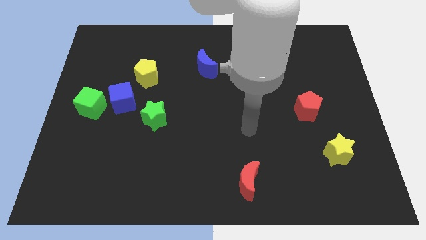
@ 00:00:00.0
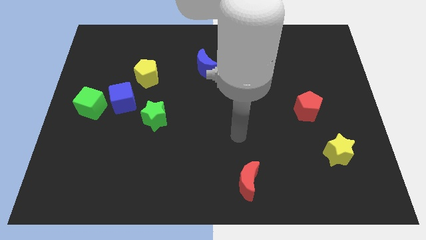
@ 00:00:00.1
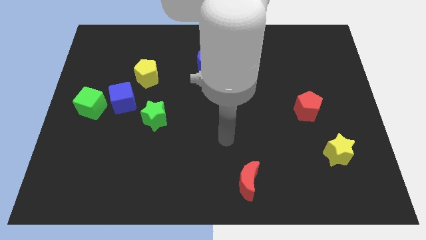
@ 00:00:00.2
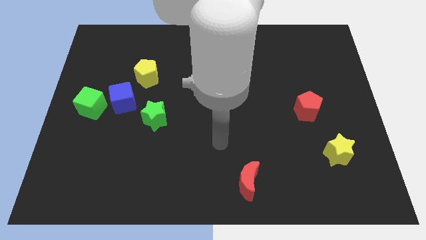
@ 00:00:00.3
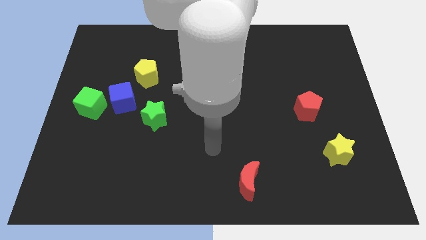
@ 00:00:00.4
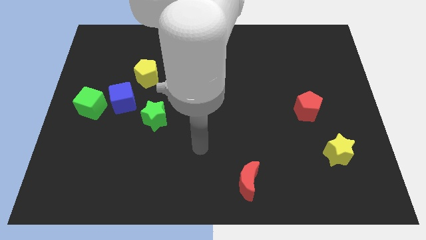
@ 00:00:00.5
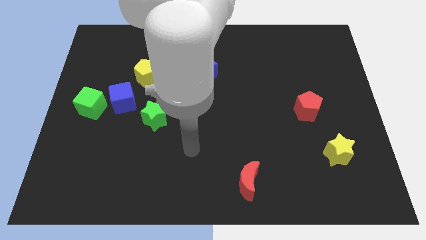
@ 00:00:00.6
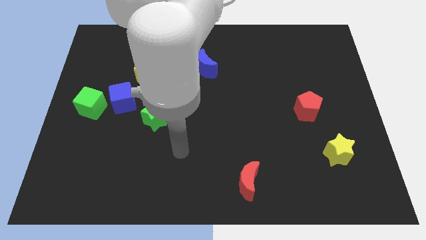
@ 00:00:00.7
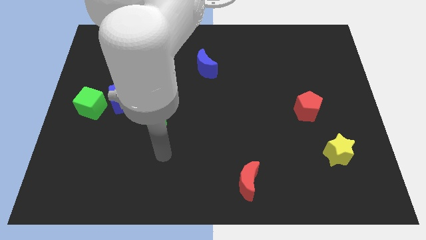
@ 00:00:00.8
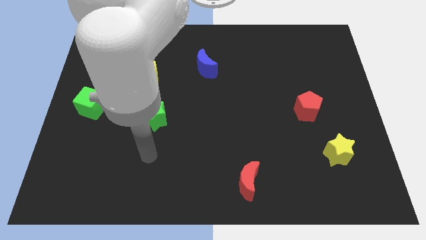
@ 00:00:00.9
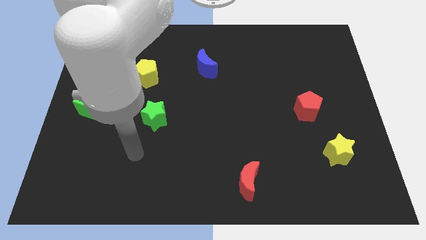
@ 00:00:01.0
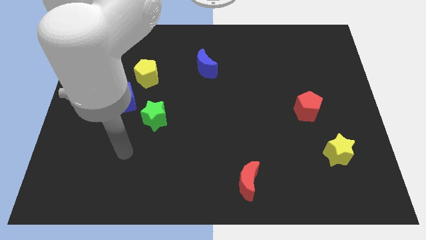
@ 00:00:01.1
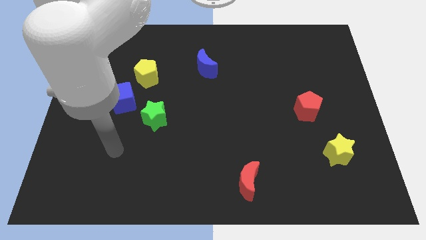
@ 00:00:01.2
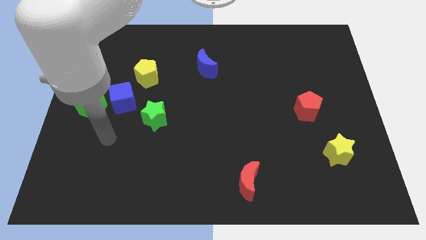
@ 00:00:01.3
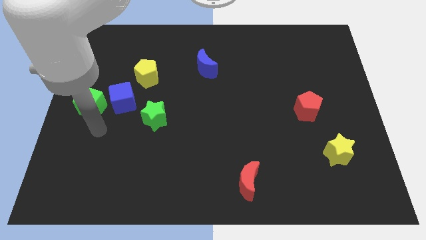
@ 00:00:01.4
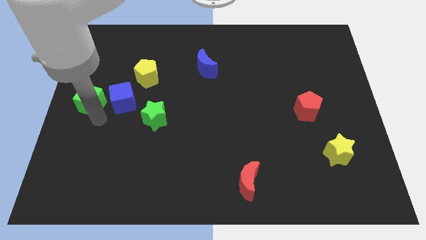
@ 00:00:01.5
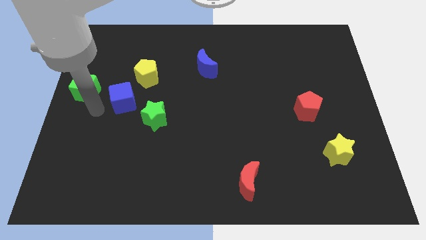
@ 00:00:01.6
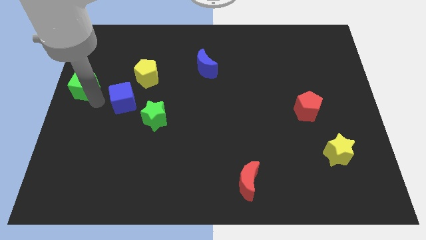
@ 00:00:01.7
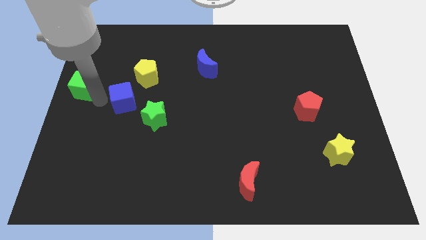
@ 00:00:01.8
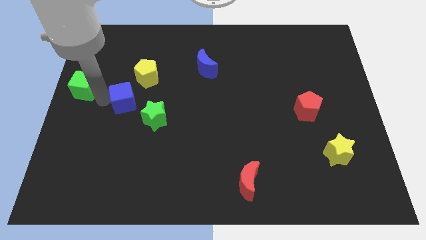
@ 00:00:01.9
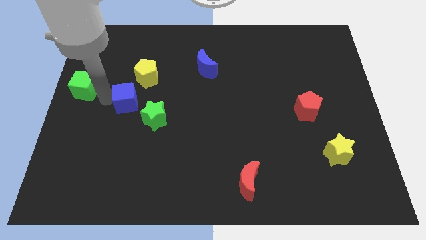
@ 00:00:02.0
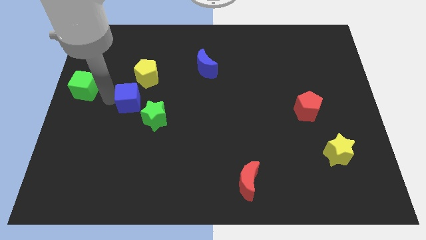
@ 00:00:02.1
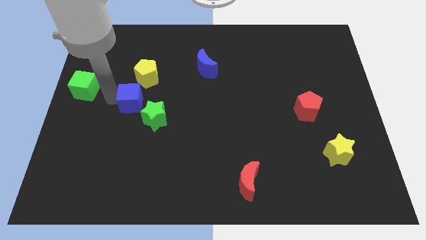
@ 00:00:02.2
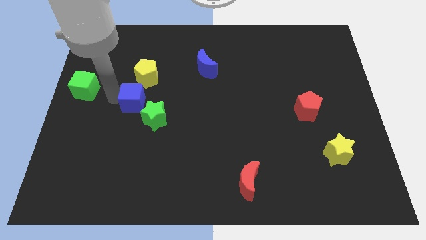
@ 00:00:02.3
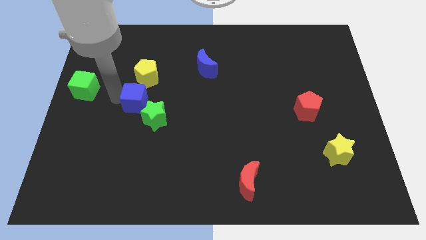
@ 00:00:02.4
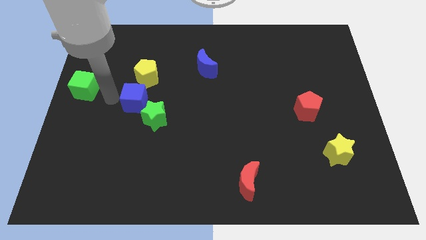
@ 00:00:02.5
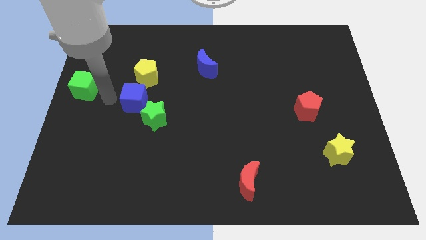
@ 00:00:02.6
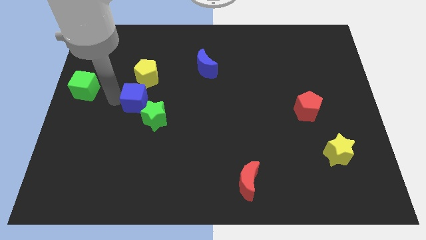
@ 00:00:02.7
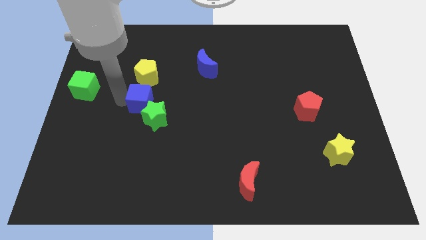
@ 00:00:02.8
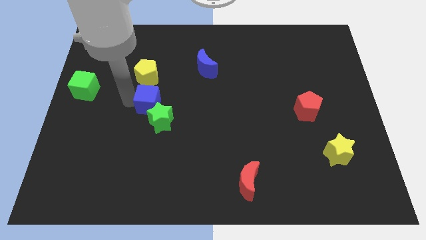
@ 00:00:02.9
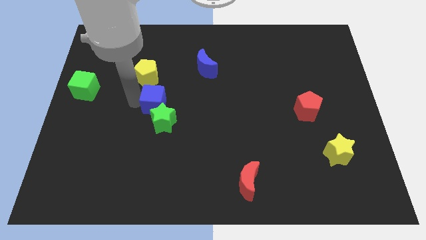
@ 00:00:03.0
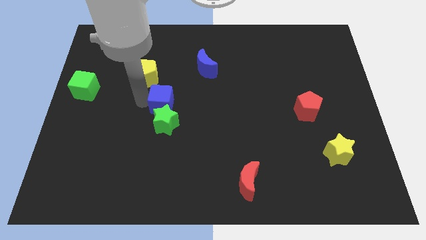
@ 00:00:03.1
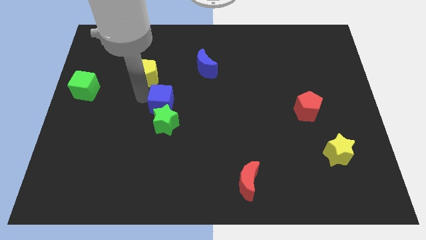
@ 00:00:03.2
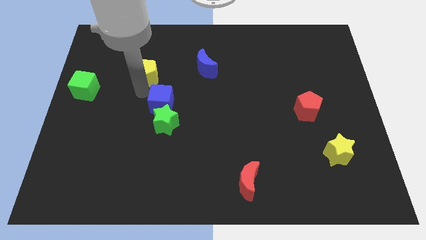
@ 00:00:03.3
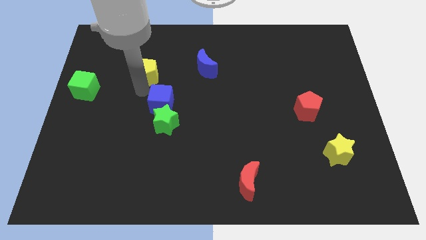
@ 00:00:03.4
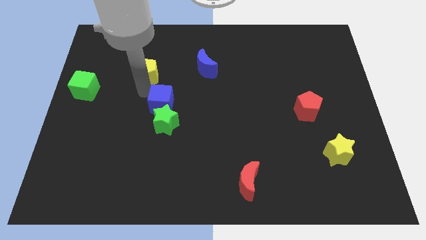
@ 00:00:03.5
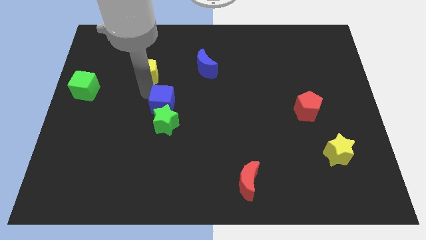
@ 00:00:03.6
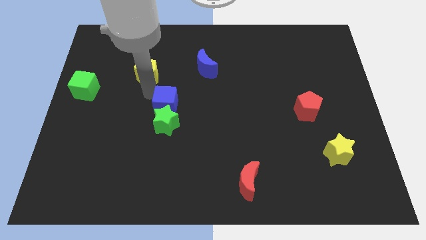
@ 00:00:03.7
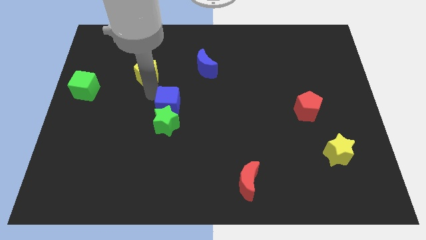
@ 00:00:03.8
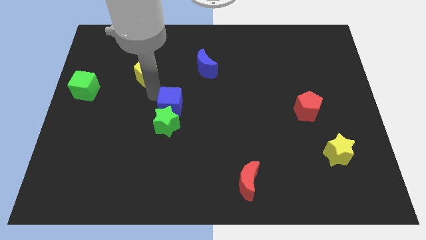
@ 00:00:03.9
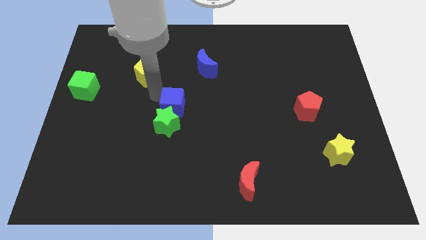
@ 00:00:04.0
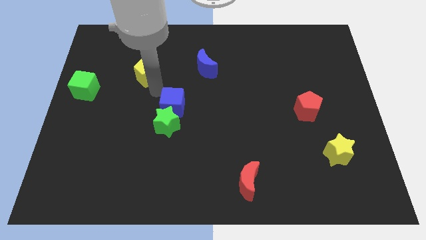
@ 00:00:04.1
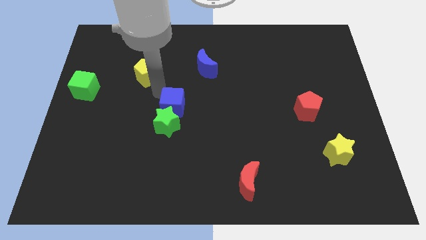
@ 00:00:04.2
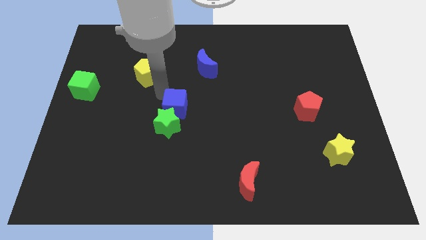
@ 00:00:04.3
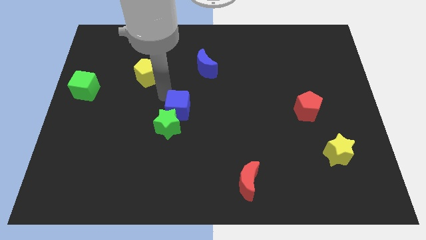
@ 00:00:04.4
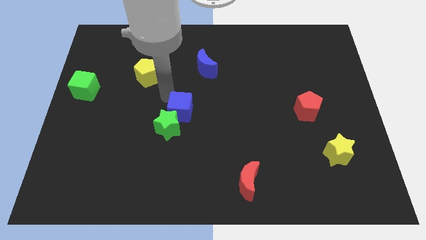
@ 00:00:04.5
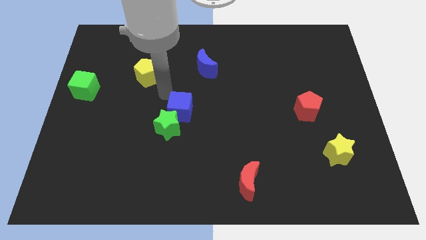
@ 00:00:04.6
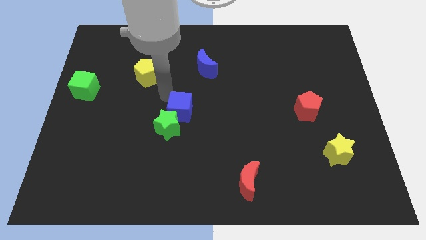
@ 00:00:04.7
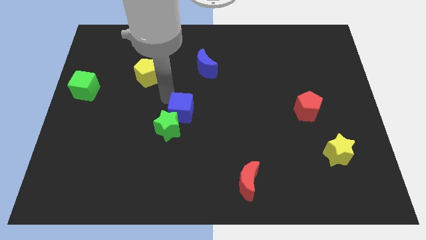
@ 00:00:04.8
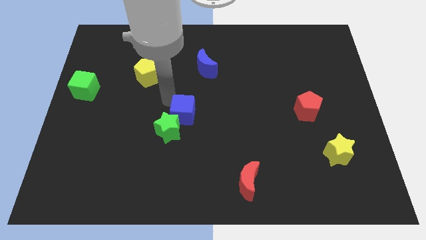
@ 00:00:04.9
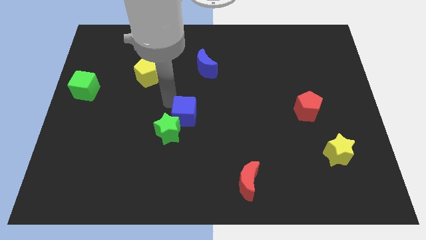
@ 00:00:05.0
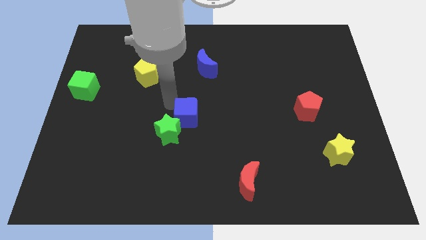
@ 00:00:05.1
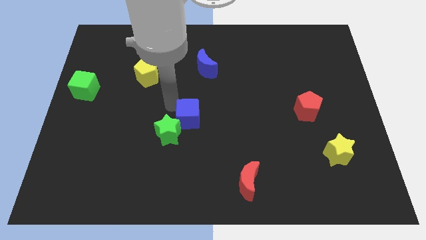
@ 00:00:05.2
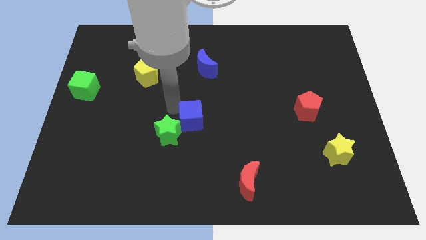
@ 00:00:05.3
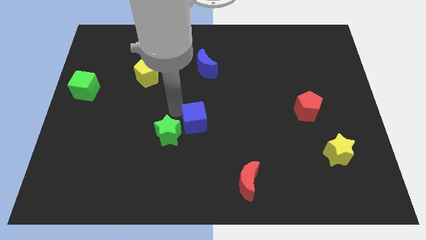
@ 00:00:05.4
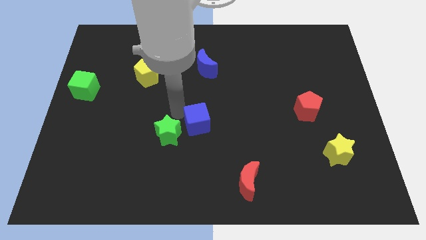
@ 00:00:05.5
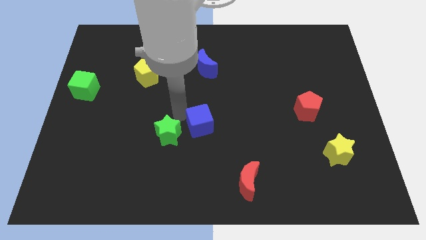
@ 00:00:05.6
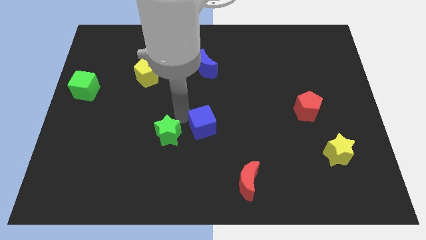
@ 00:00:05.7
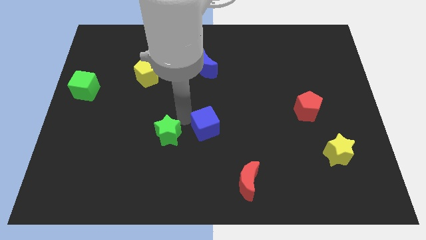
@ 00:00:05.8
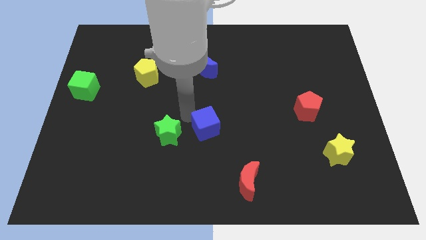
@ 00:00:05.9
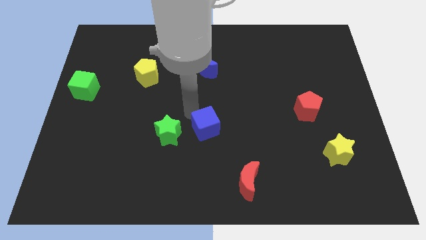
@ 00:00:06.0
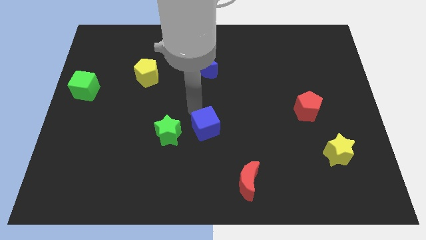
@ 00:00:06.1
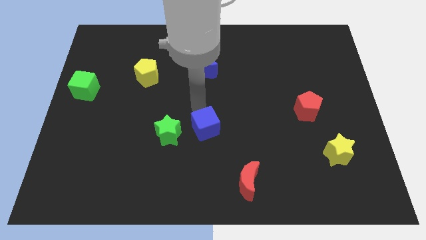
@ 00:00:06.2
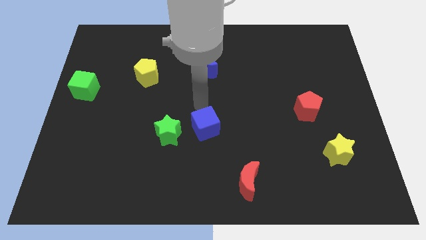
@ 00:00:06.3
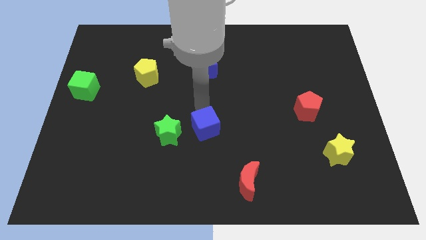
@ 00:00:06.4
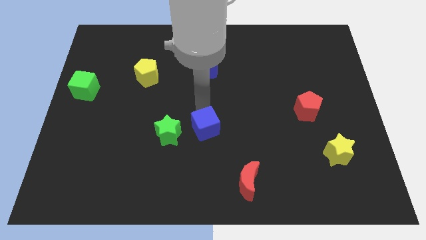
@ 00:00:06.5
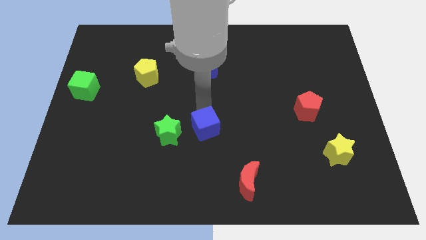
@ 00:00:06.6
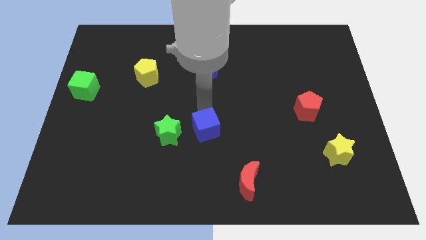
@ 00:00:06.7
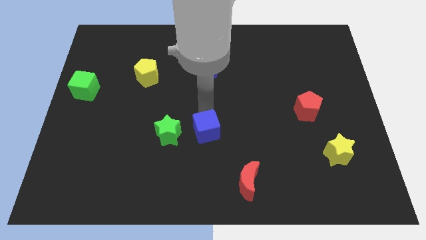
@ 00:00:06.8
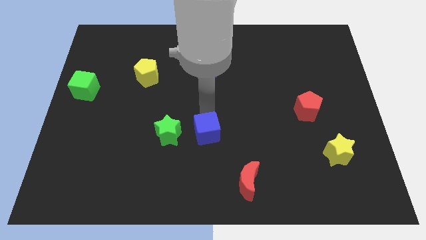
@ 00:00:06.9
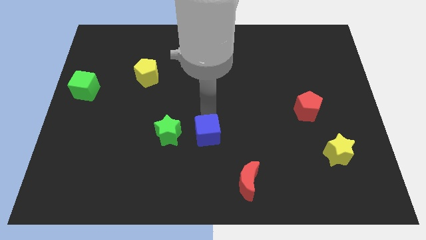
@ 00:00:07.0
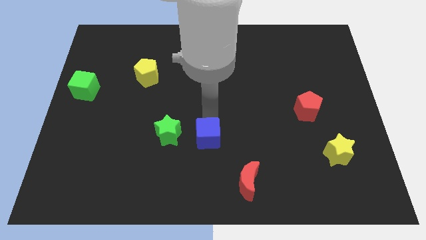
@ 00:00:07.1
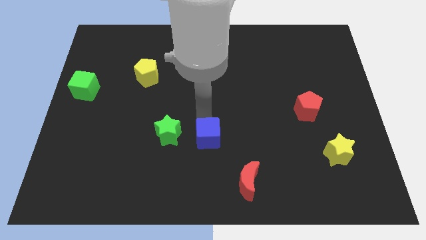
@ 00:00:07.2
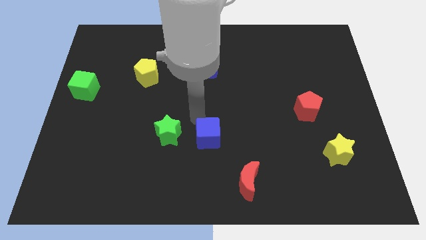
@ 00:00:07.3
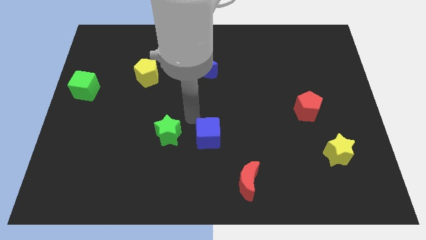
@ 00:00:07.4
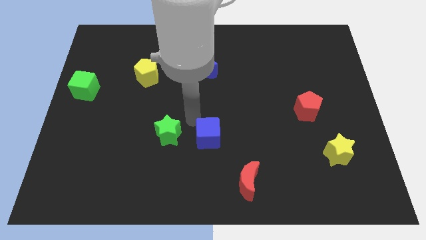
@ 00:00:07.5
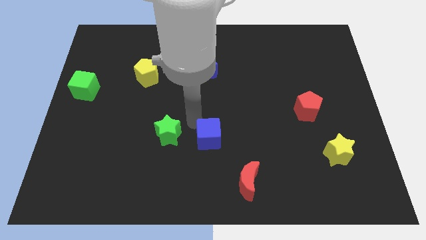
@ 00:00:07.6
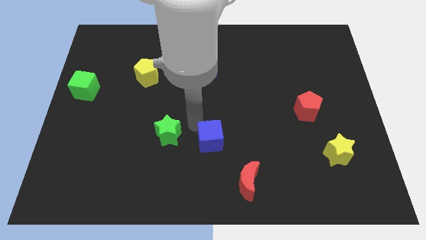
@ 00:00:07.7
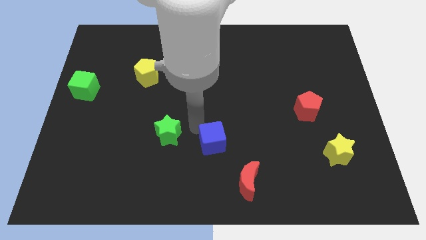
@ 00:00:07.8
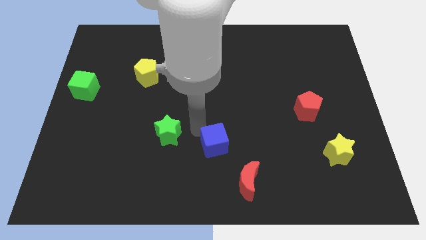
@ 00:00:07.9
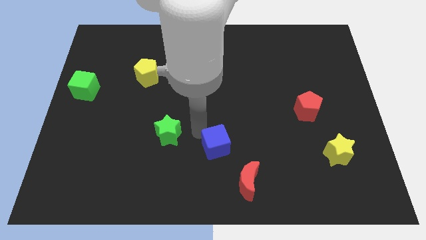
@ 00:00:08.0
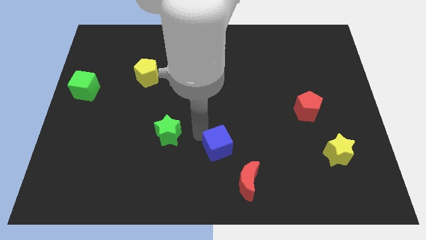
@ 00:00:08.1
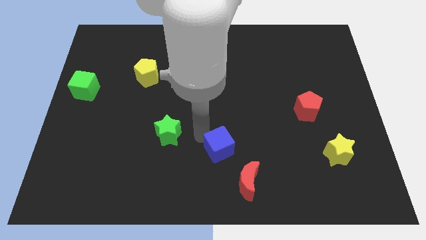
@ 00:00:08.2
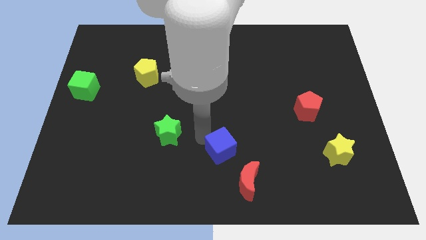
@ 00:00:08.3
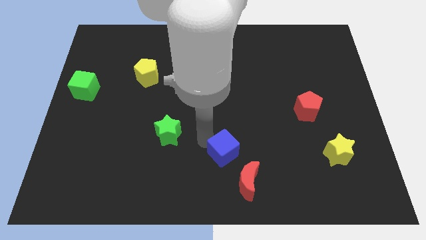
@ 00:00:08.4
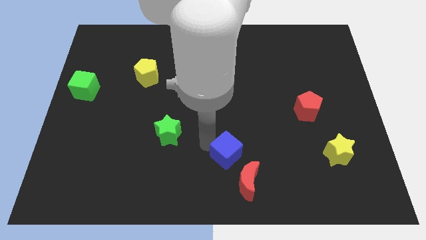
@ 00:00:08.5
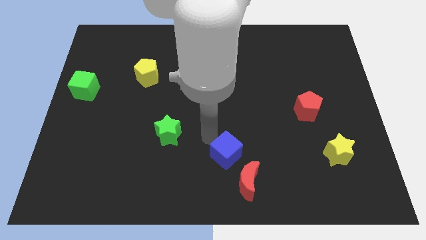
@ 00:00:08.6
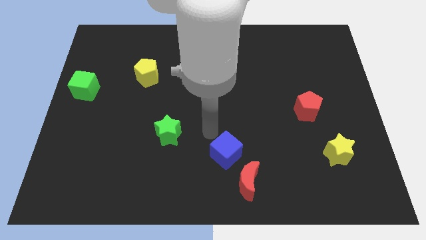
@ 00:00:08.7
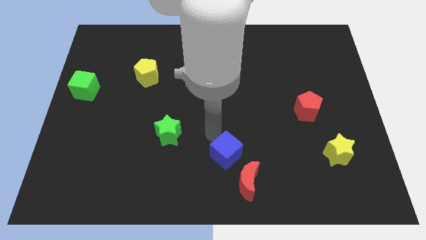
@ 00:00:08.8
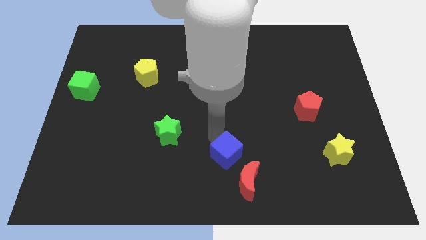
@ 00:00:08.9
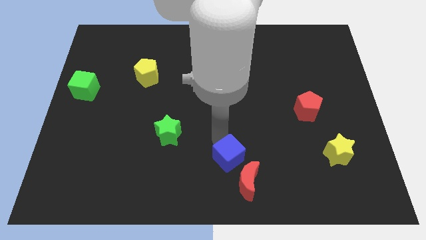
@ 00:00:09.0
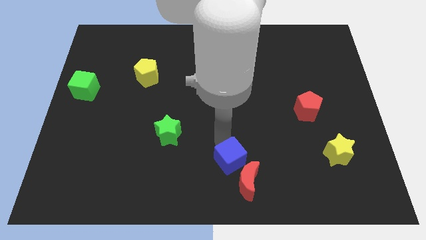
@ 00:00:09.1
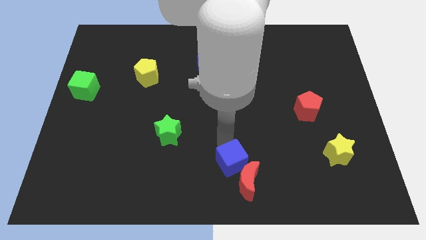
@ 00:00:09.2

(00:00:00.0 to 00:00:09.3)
move the blue cube towards the red moon
